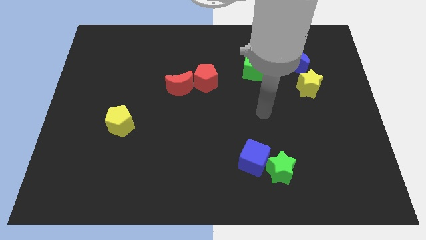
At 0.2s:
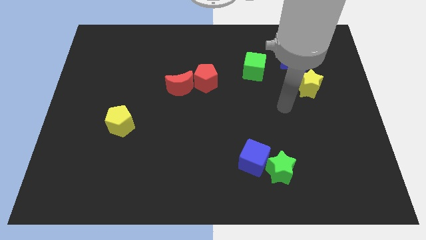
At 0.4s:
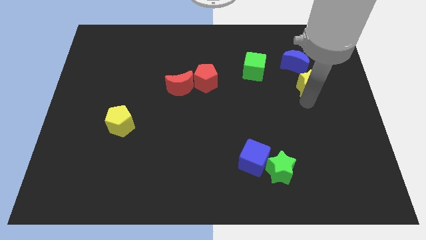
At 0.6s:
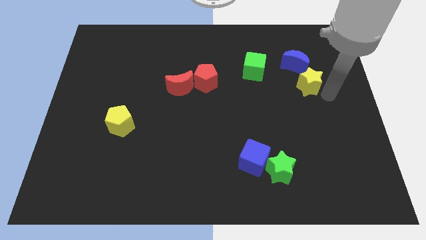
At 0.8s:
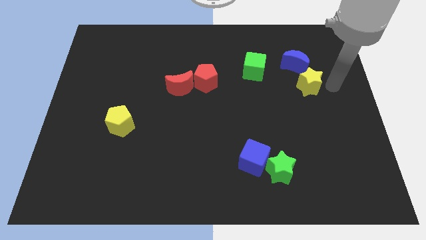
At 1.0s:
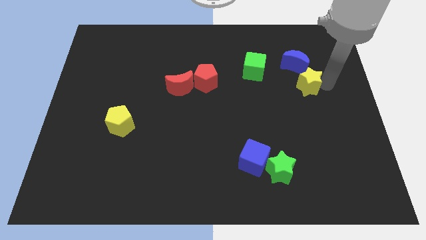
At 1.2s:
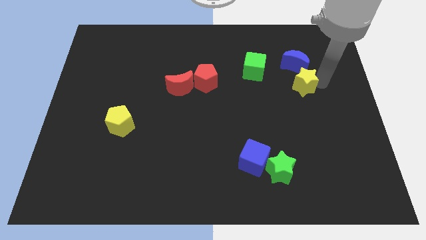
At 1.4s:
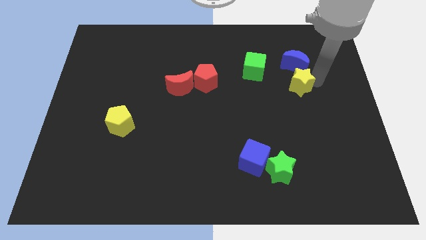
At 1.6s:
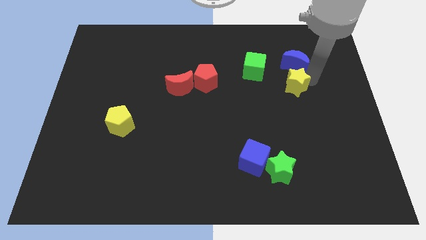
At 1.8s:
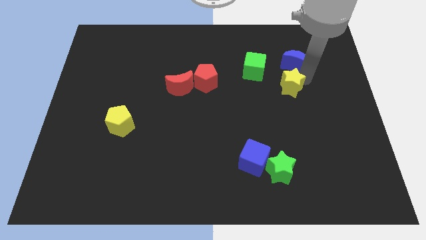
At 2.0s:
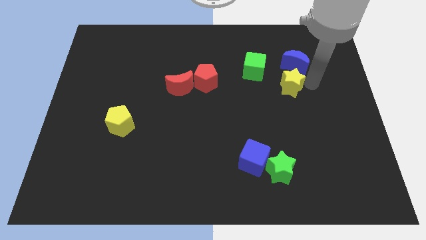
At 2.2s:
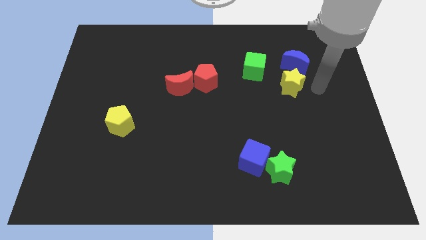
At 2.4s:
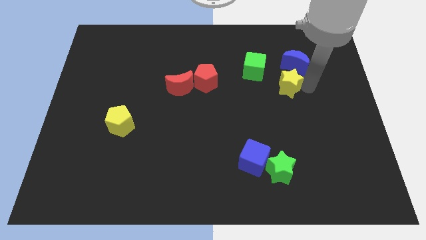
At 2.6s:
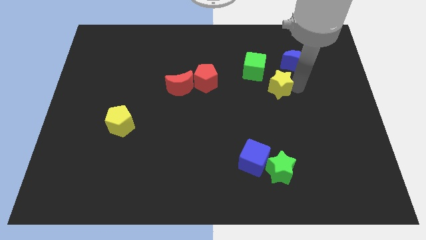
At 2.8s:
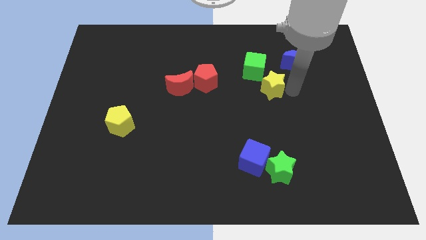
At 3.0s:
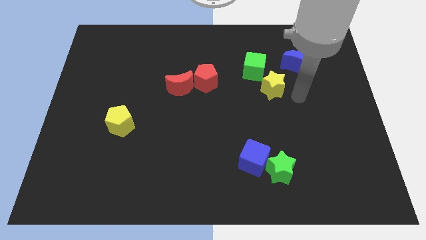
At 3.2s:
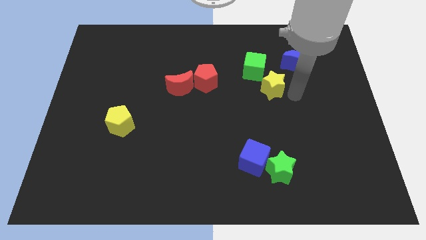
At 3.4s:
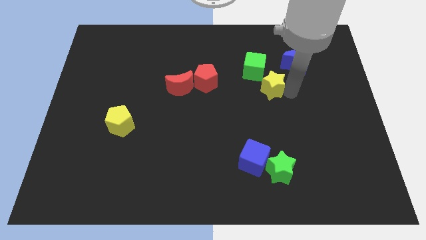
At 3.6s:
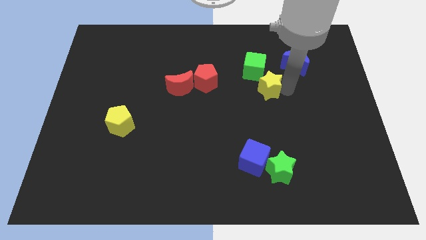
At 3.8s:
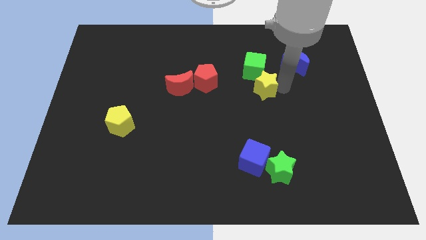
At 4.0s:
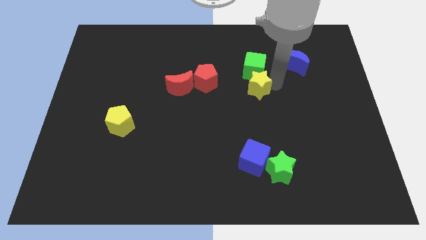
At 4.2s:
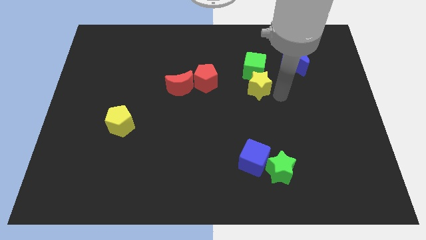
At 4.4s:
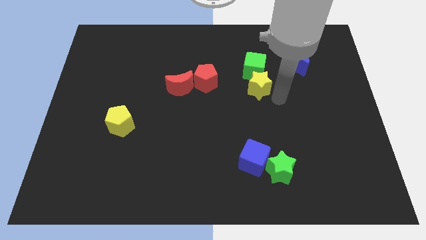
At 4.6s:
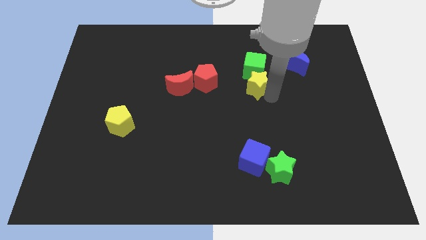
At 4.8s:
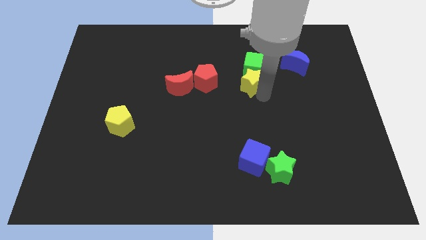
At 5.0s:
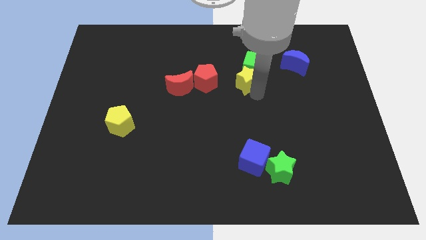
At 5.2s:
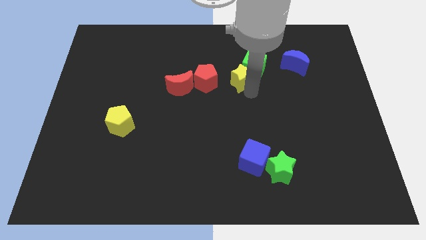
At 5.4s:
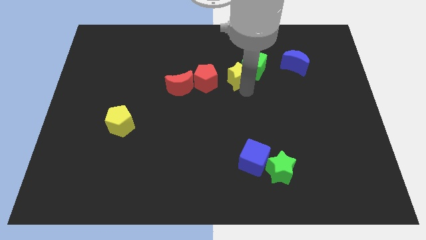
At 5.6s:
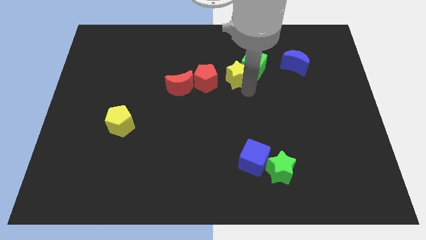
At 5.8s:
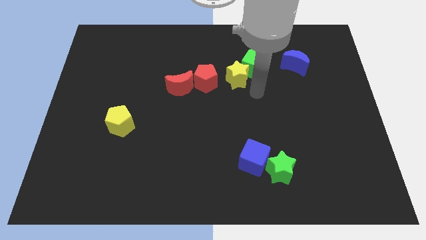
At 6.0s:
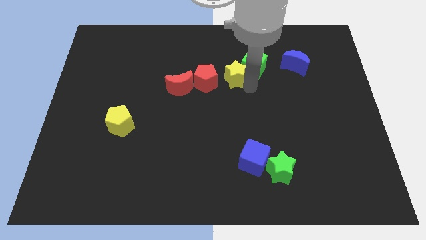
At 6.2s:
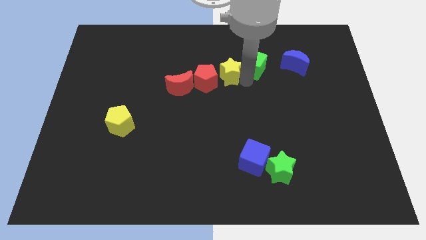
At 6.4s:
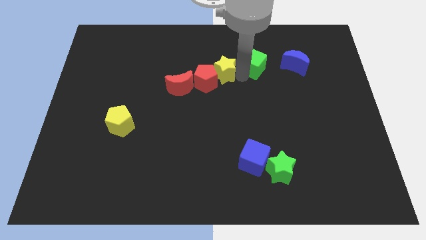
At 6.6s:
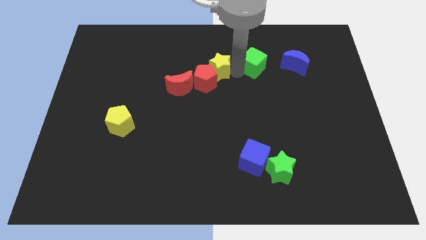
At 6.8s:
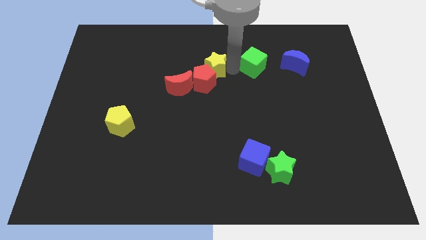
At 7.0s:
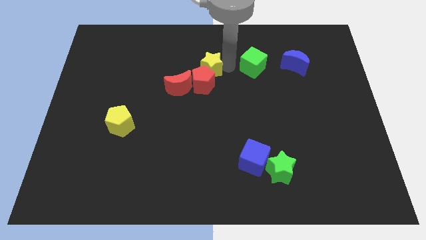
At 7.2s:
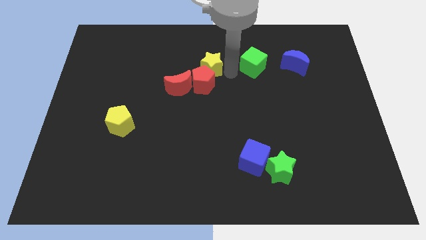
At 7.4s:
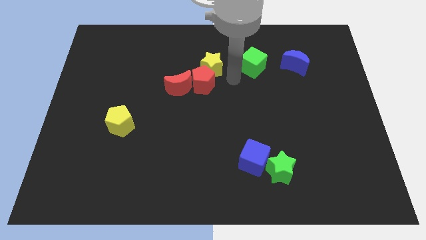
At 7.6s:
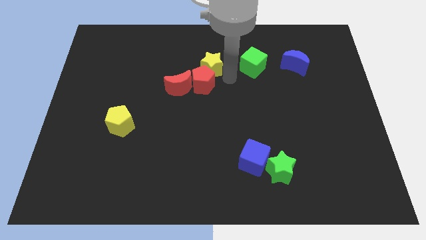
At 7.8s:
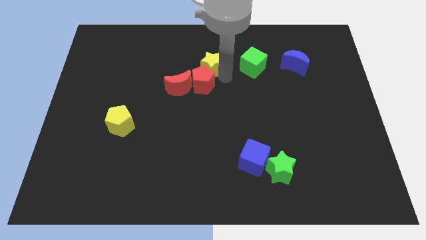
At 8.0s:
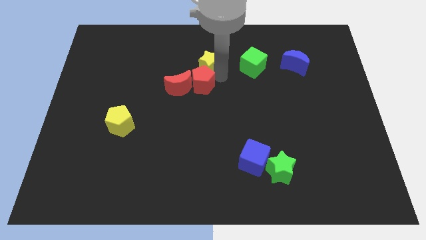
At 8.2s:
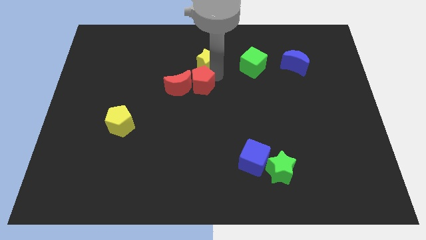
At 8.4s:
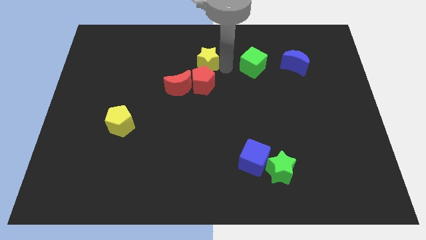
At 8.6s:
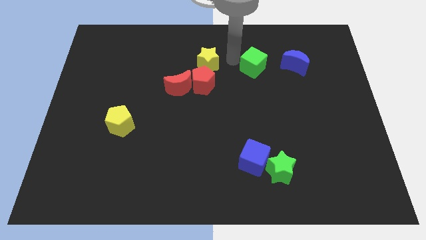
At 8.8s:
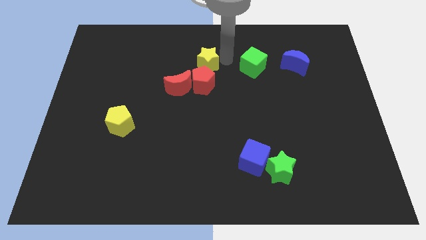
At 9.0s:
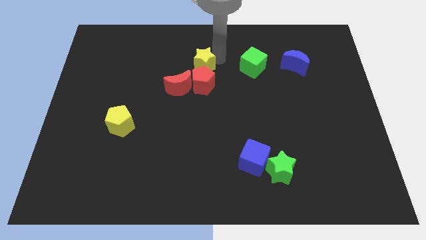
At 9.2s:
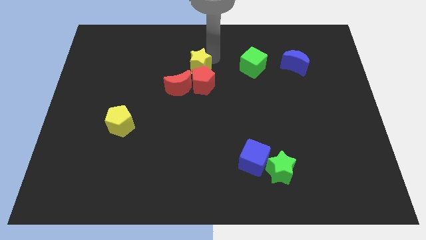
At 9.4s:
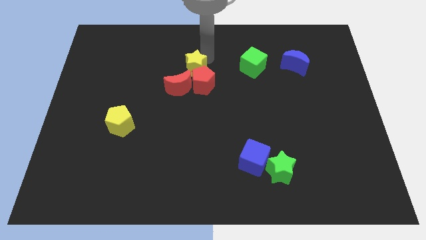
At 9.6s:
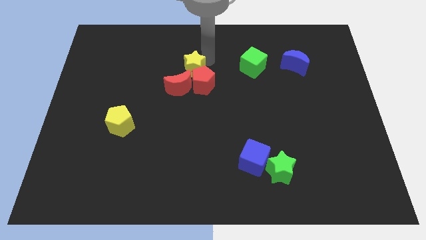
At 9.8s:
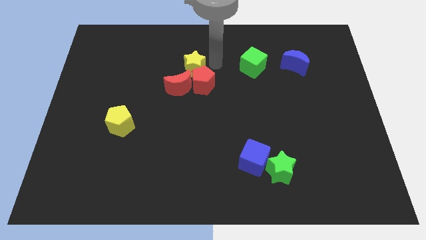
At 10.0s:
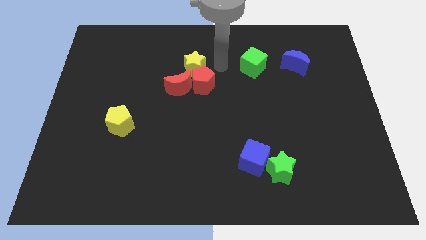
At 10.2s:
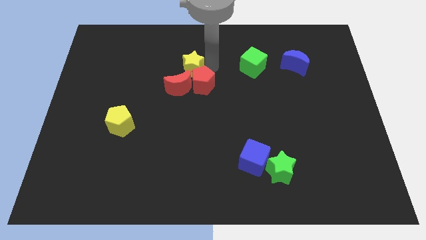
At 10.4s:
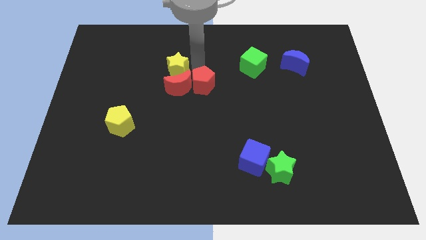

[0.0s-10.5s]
slide the yellow star left of the red pentagon

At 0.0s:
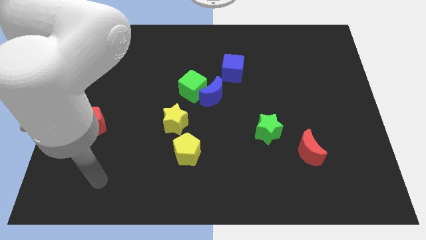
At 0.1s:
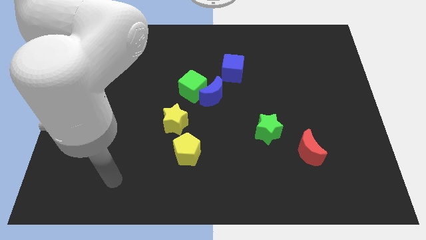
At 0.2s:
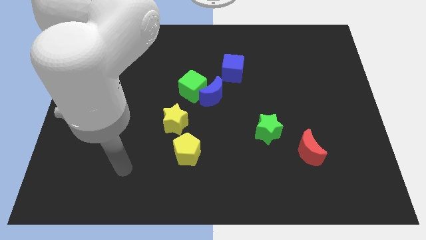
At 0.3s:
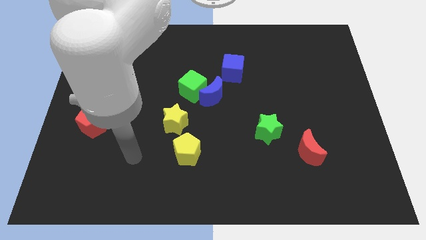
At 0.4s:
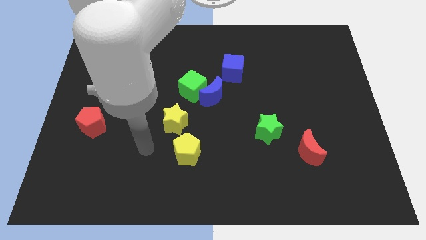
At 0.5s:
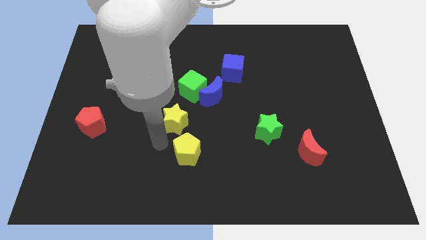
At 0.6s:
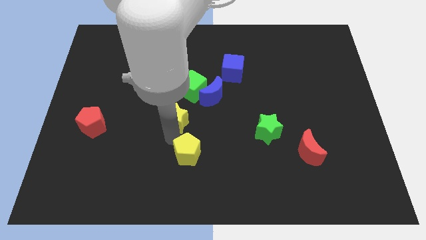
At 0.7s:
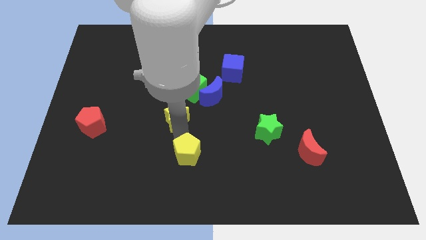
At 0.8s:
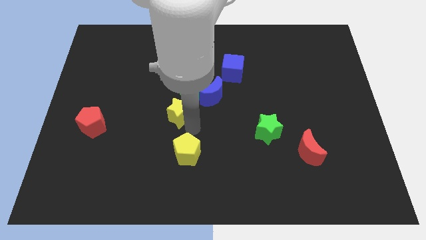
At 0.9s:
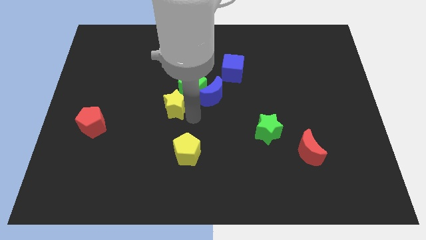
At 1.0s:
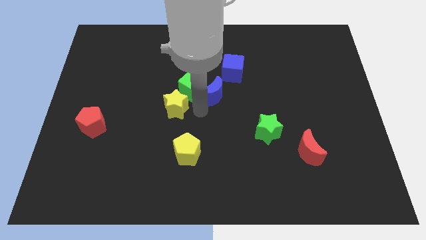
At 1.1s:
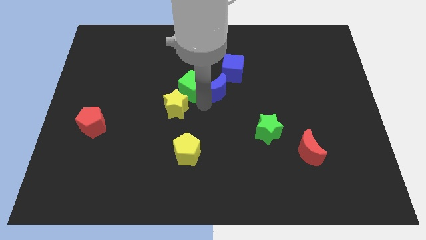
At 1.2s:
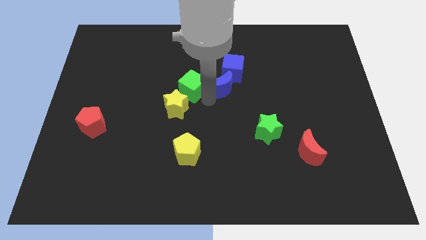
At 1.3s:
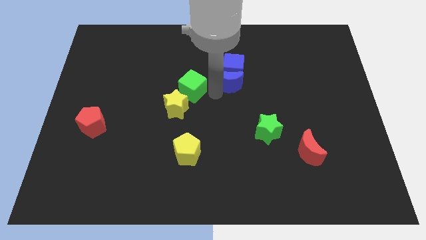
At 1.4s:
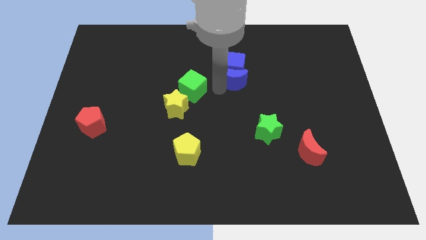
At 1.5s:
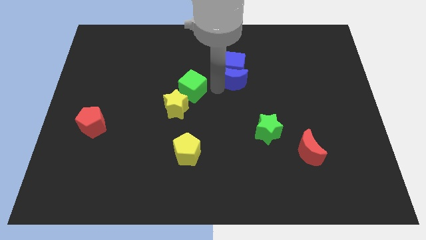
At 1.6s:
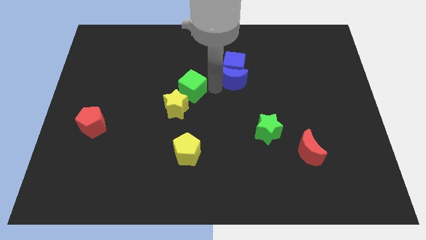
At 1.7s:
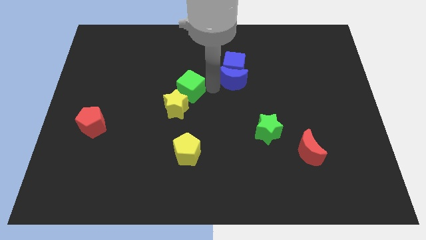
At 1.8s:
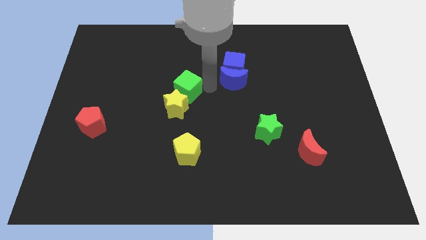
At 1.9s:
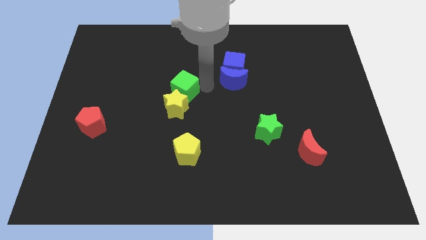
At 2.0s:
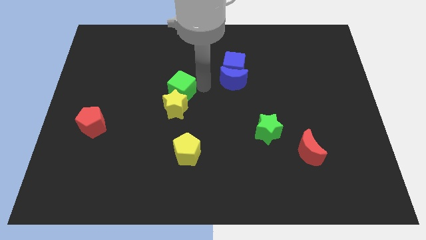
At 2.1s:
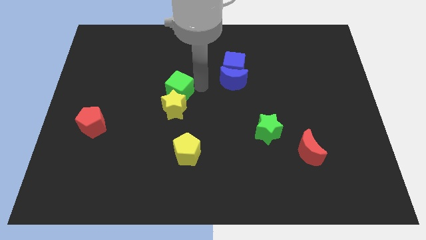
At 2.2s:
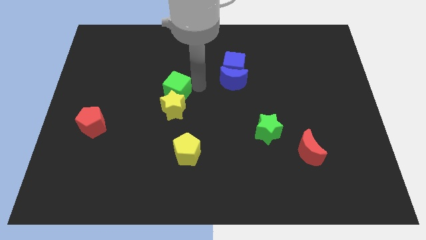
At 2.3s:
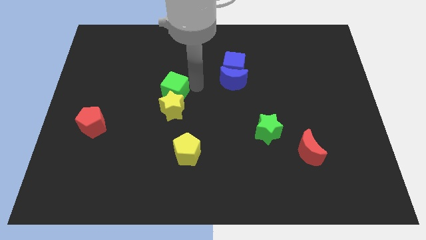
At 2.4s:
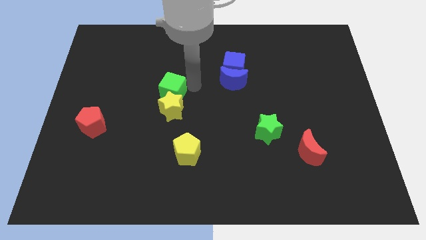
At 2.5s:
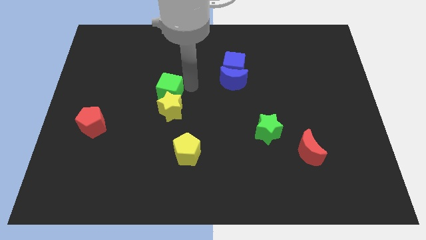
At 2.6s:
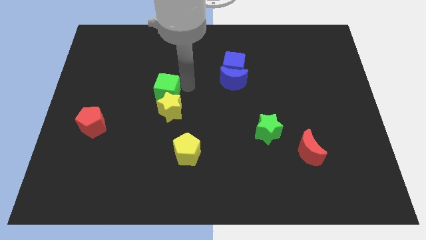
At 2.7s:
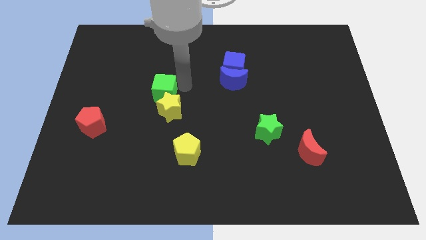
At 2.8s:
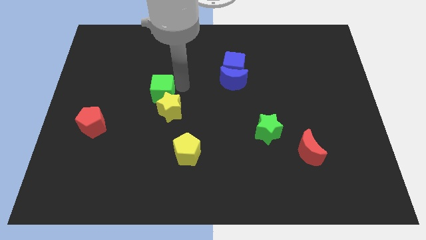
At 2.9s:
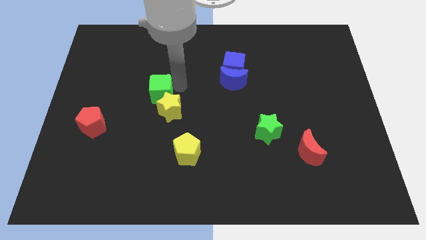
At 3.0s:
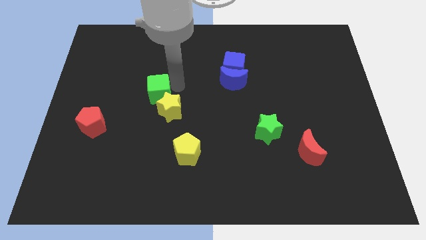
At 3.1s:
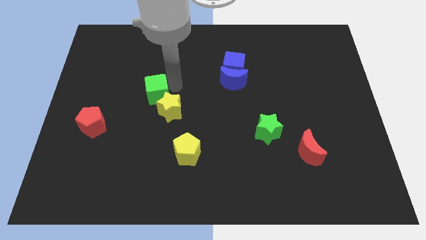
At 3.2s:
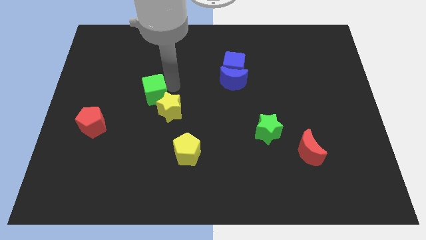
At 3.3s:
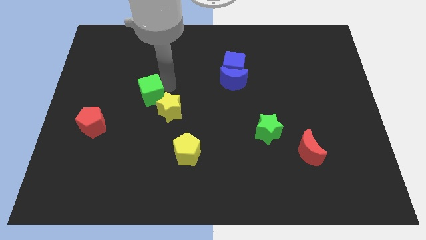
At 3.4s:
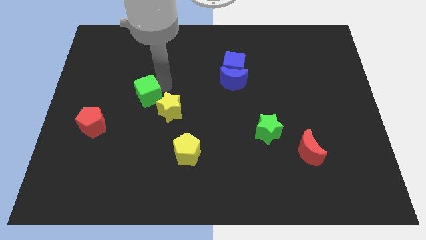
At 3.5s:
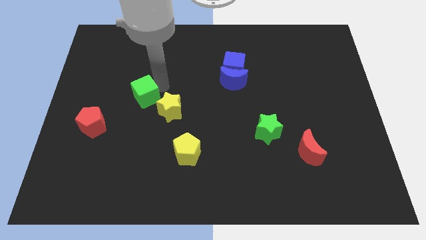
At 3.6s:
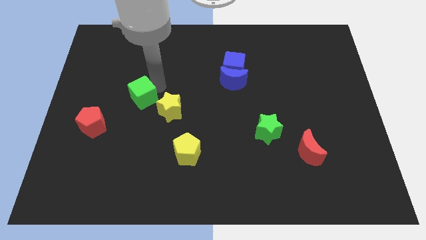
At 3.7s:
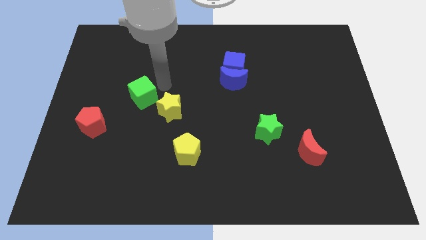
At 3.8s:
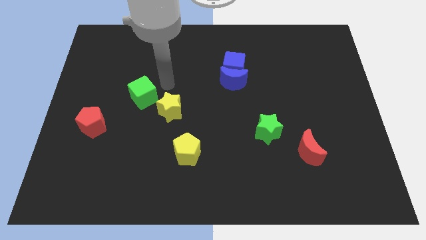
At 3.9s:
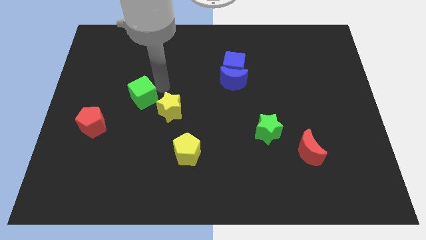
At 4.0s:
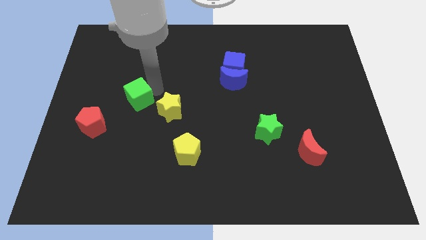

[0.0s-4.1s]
put the green cube to the top right side of the red pentagon
